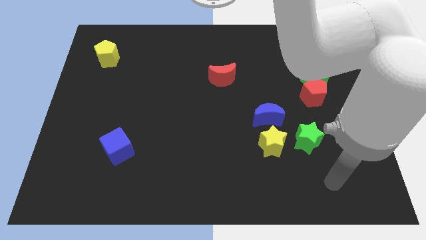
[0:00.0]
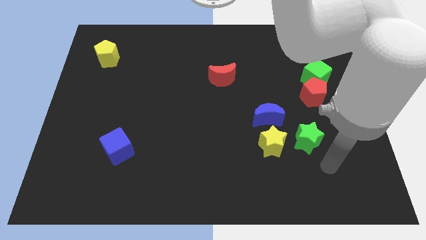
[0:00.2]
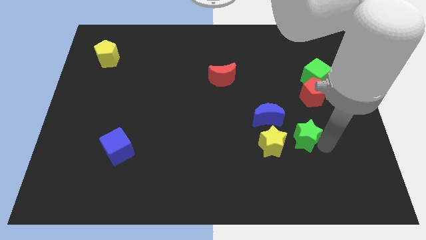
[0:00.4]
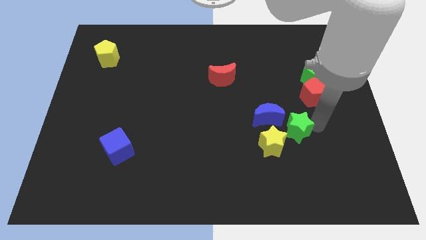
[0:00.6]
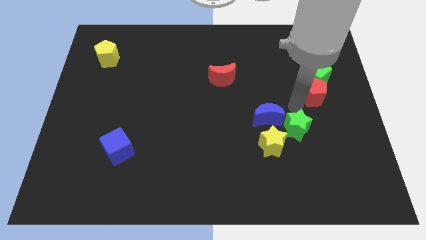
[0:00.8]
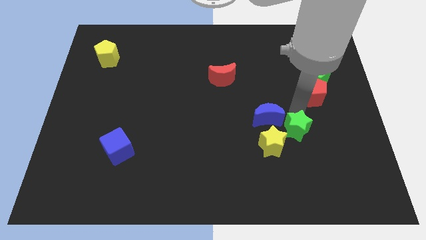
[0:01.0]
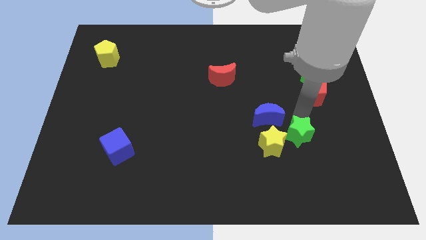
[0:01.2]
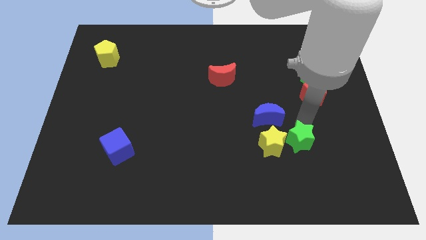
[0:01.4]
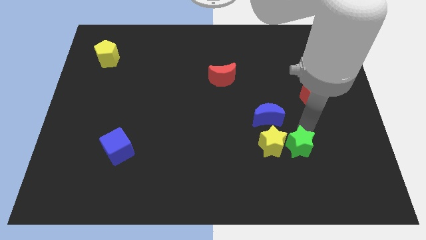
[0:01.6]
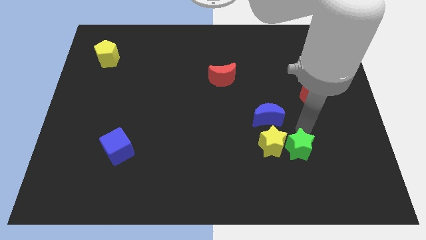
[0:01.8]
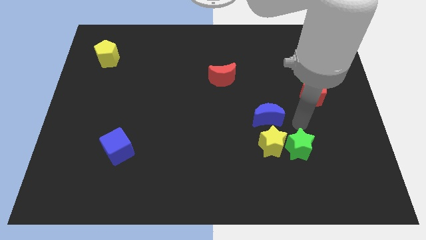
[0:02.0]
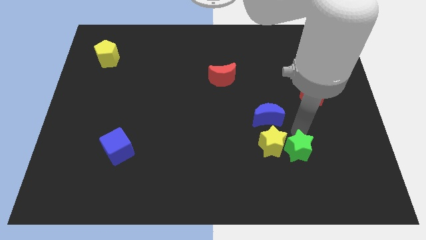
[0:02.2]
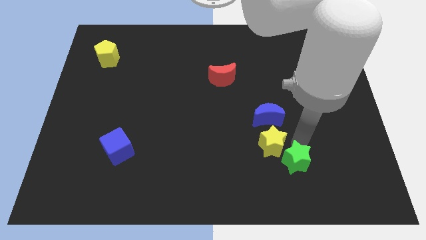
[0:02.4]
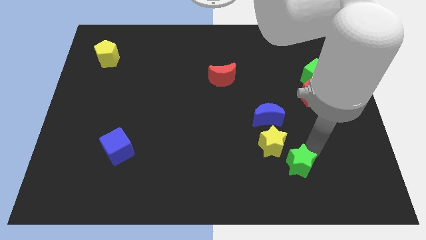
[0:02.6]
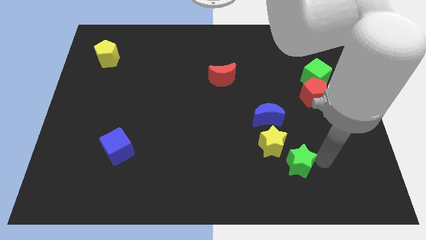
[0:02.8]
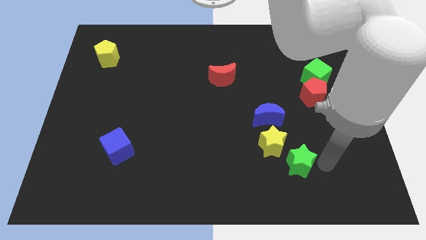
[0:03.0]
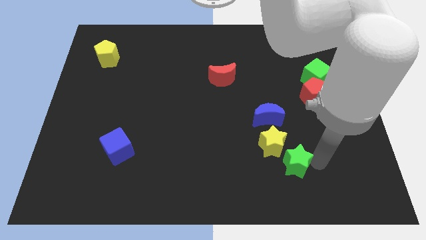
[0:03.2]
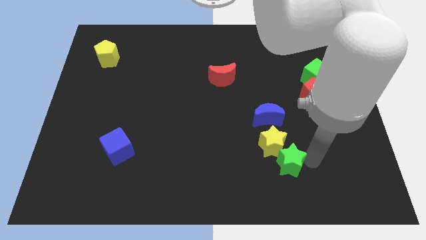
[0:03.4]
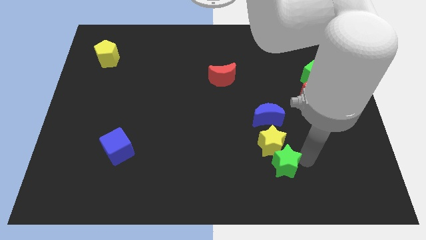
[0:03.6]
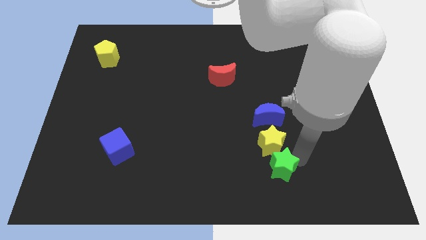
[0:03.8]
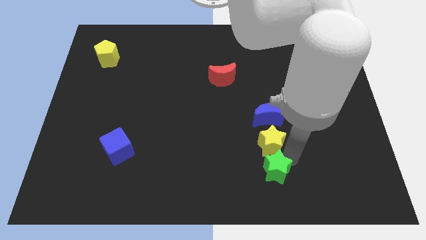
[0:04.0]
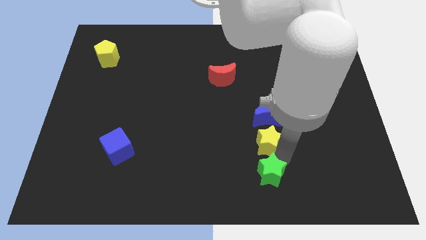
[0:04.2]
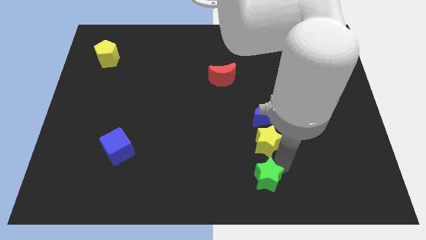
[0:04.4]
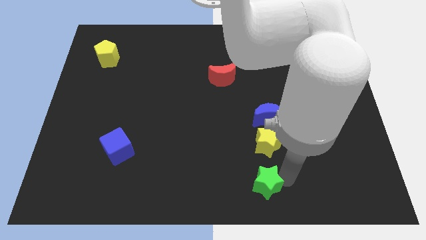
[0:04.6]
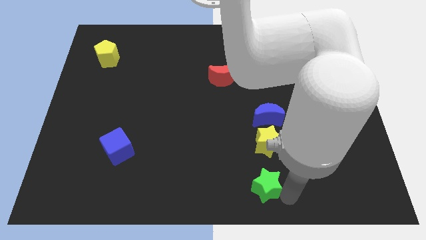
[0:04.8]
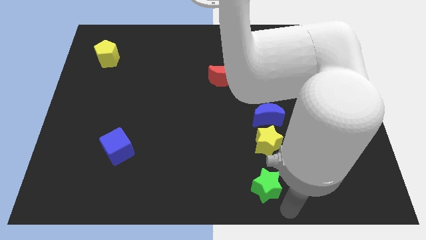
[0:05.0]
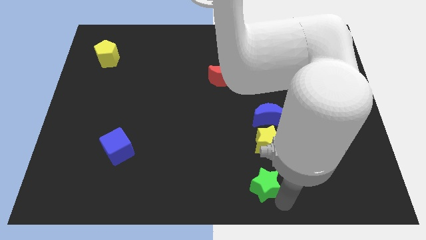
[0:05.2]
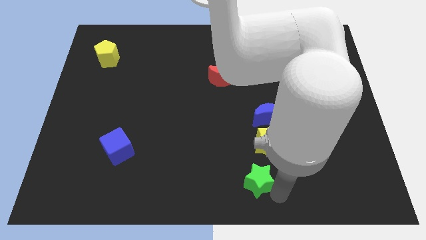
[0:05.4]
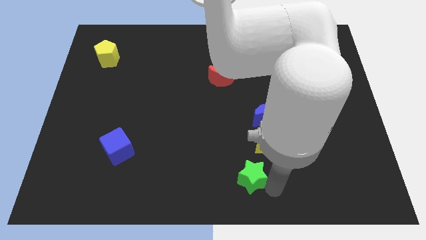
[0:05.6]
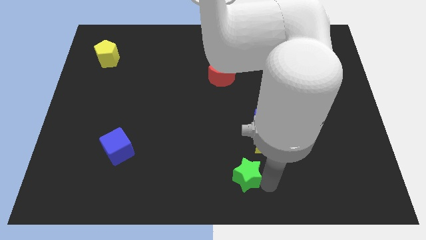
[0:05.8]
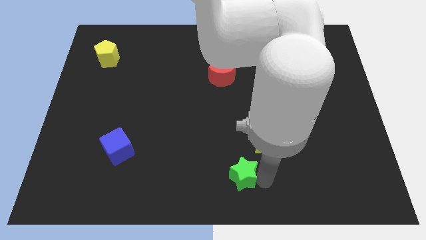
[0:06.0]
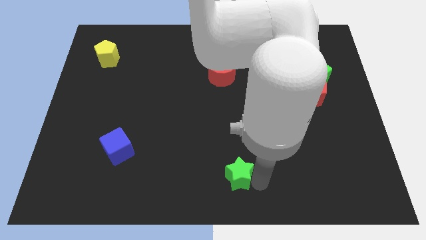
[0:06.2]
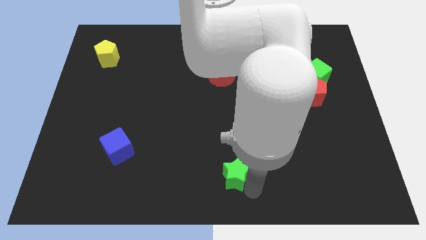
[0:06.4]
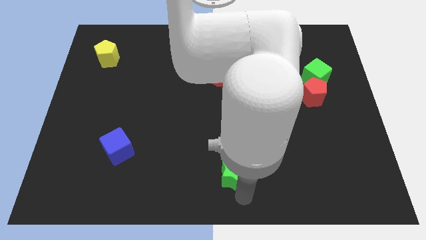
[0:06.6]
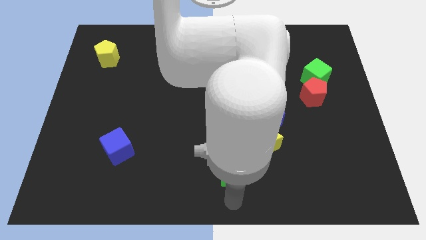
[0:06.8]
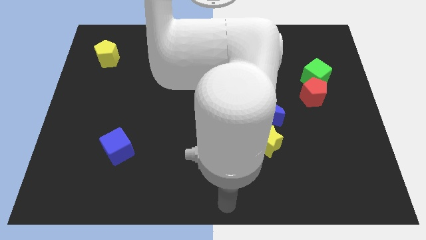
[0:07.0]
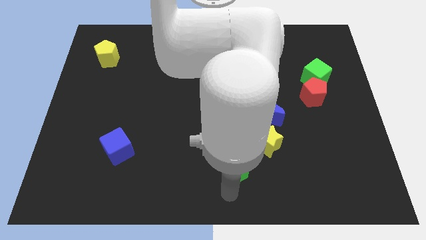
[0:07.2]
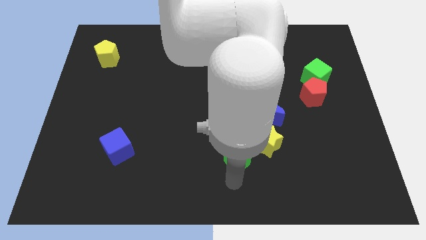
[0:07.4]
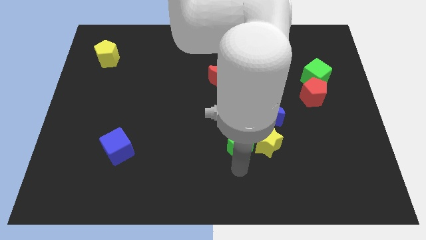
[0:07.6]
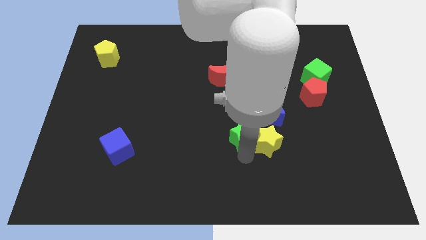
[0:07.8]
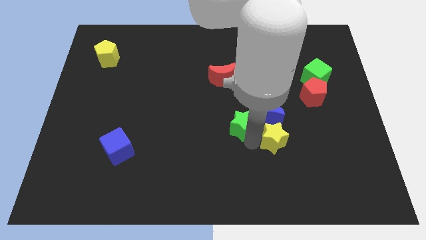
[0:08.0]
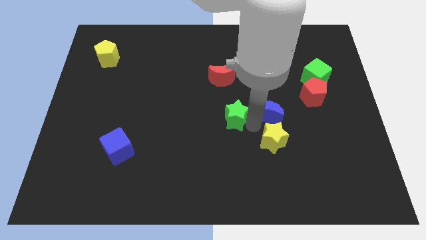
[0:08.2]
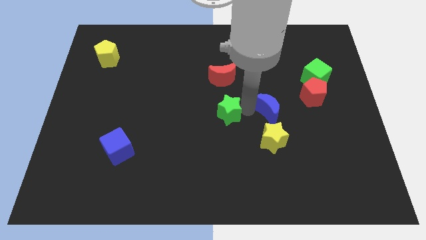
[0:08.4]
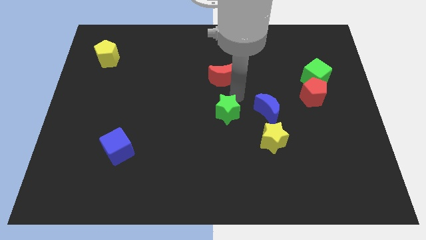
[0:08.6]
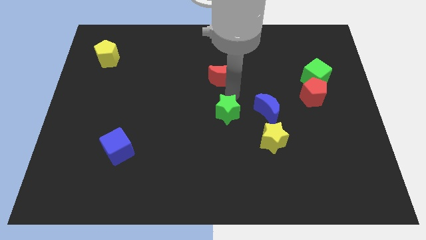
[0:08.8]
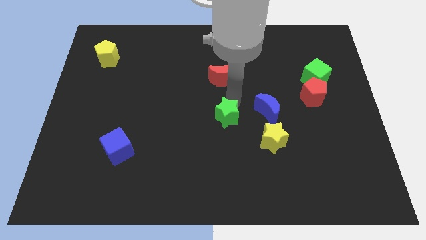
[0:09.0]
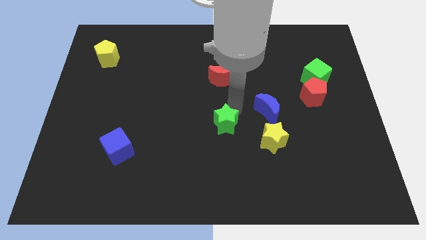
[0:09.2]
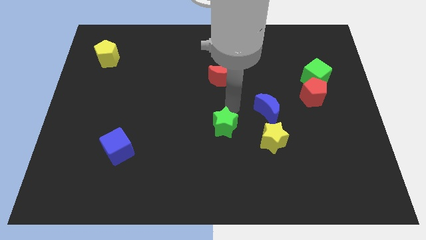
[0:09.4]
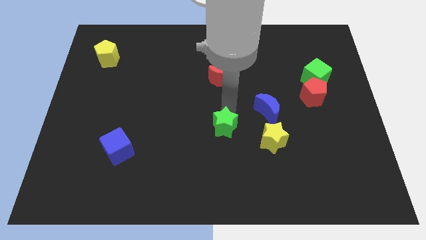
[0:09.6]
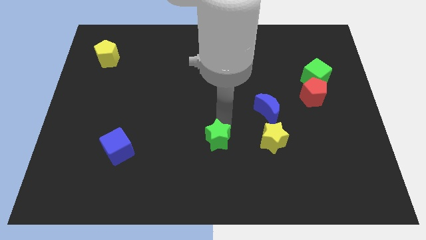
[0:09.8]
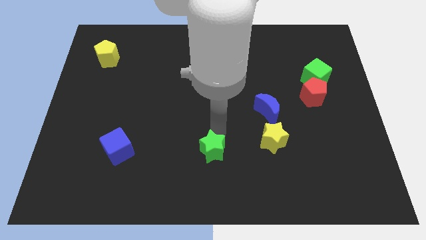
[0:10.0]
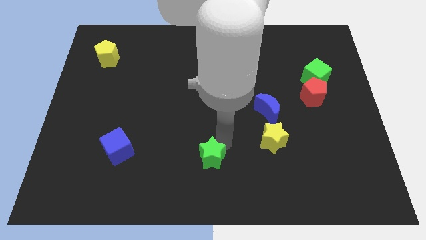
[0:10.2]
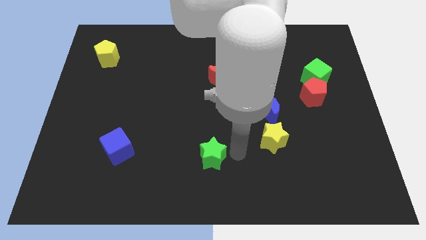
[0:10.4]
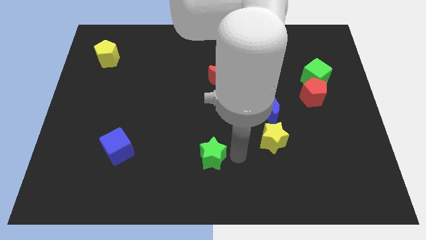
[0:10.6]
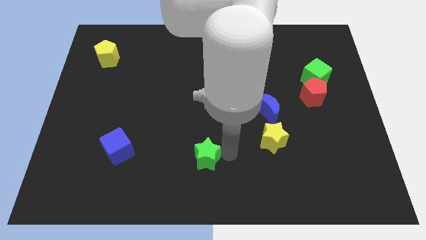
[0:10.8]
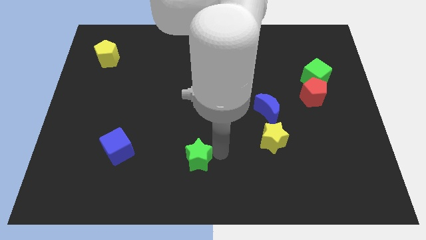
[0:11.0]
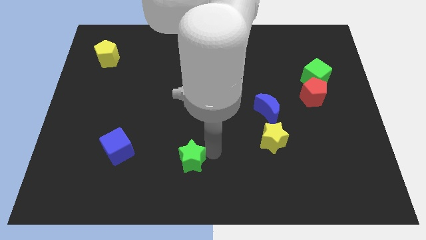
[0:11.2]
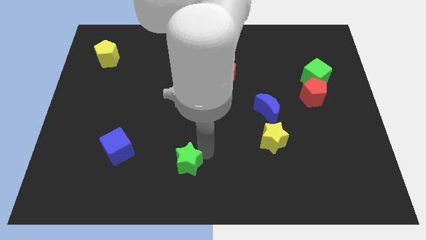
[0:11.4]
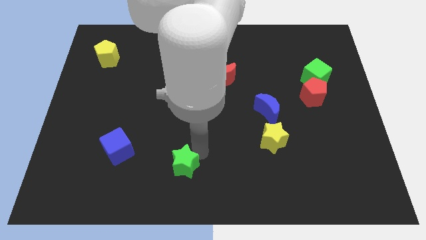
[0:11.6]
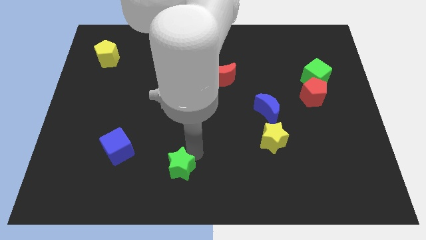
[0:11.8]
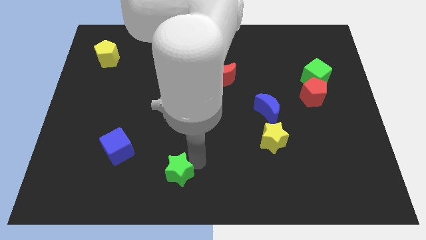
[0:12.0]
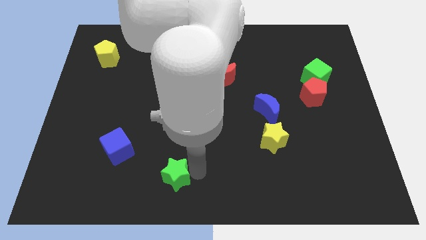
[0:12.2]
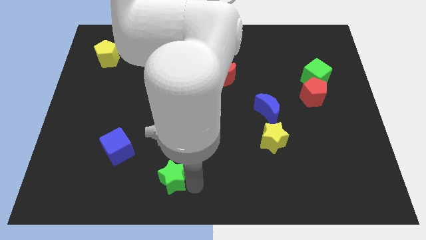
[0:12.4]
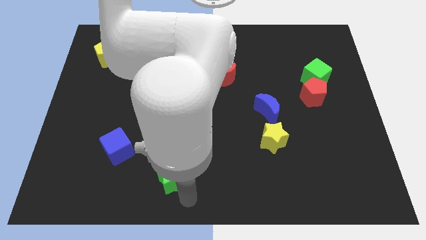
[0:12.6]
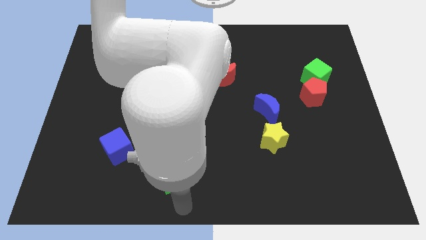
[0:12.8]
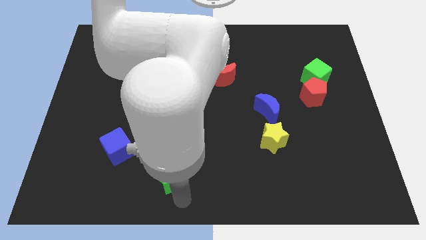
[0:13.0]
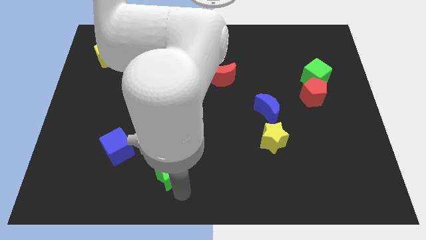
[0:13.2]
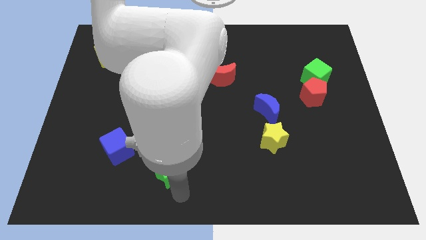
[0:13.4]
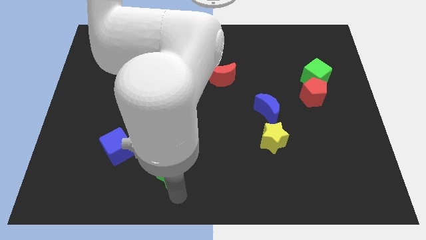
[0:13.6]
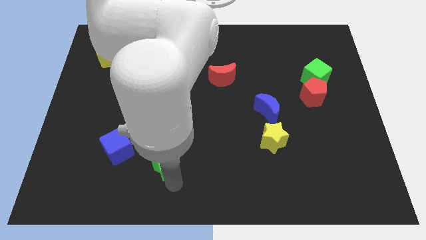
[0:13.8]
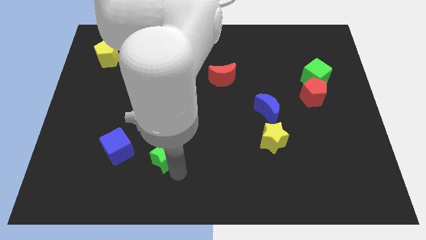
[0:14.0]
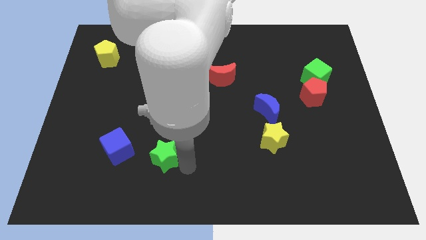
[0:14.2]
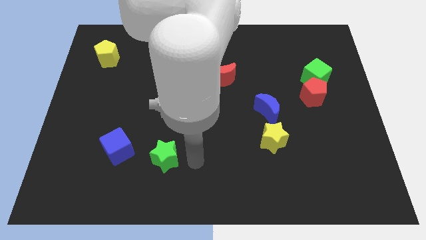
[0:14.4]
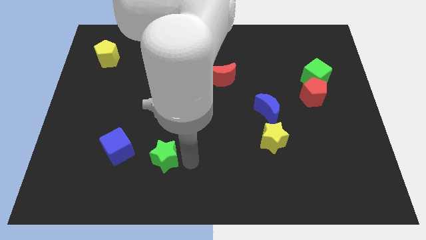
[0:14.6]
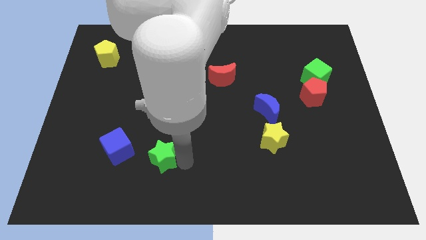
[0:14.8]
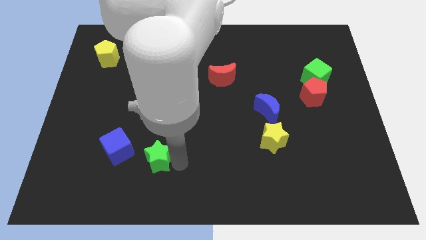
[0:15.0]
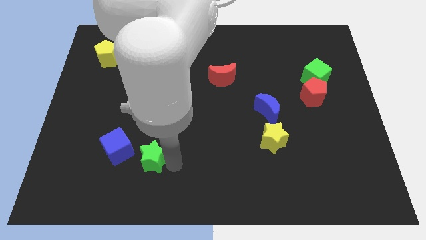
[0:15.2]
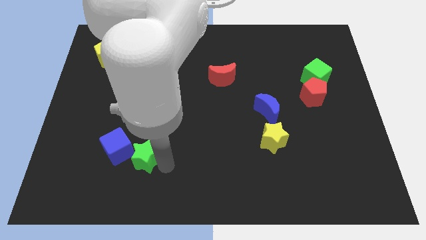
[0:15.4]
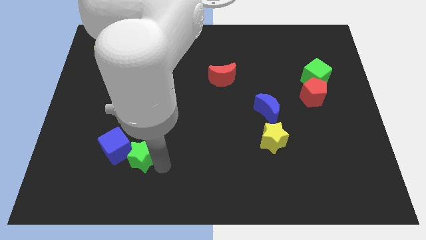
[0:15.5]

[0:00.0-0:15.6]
push the green star close to the blue cube

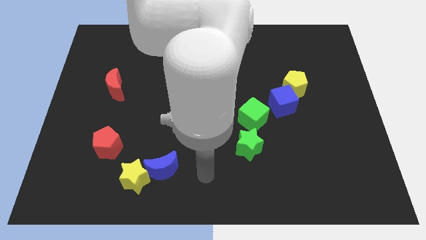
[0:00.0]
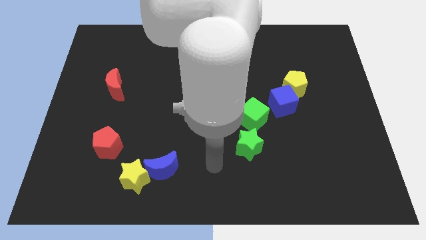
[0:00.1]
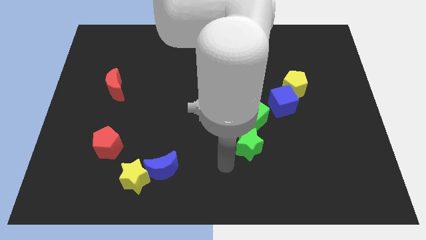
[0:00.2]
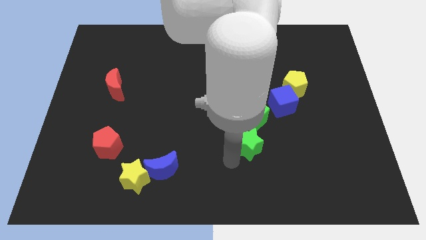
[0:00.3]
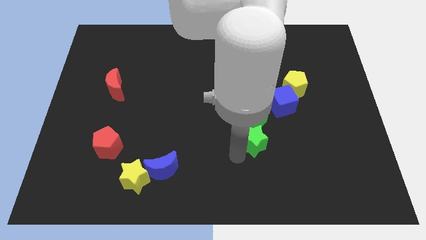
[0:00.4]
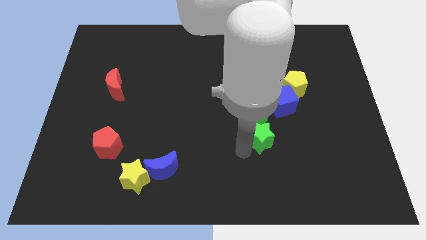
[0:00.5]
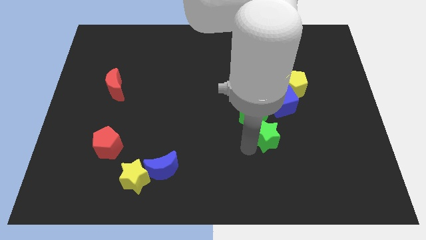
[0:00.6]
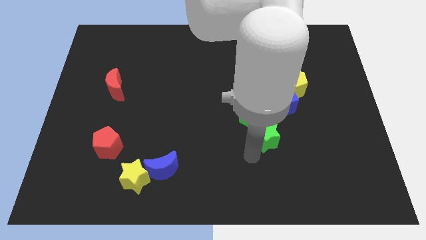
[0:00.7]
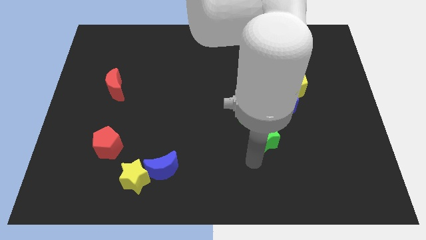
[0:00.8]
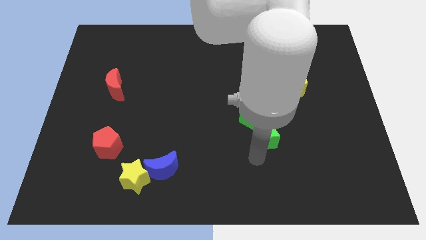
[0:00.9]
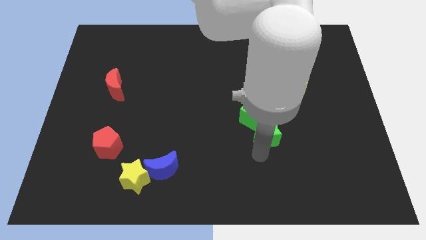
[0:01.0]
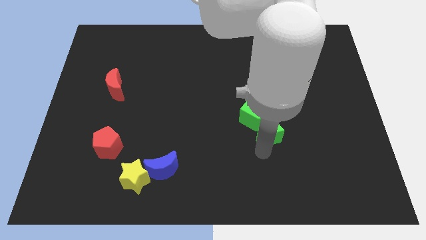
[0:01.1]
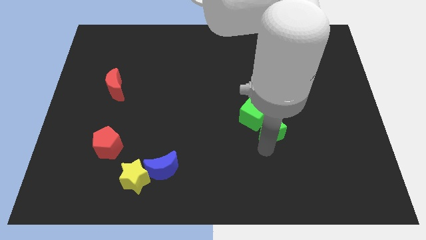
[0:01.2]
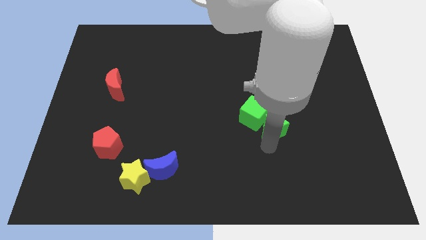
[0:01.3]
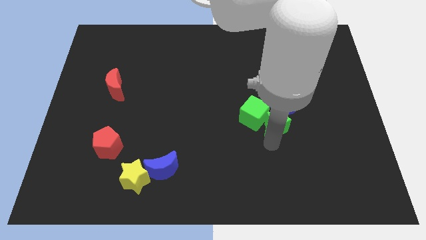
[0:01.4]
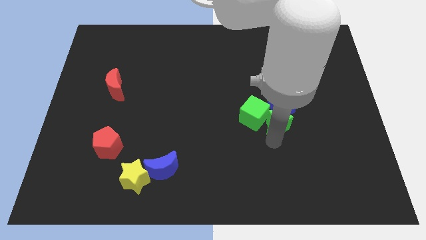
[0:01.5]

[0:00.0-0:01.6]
slide the green star close to the blue cube
